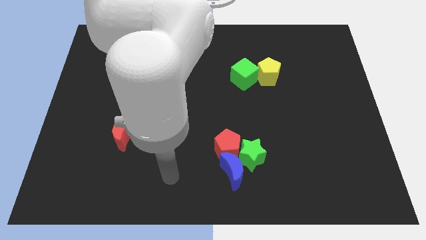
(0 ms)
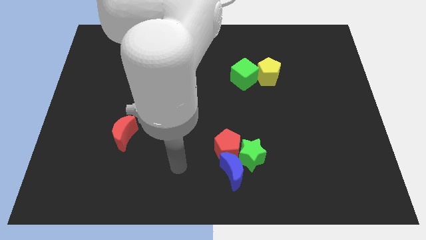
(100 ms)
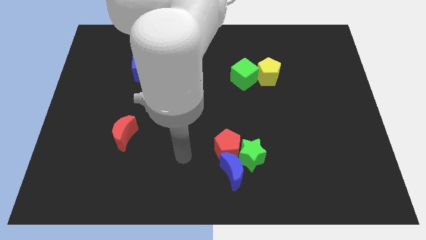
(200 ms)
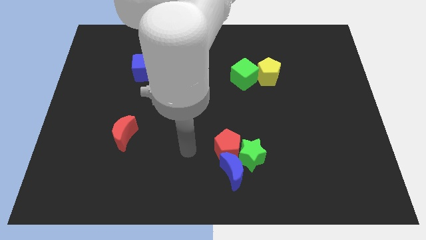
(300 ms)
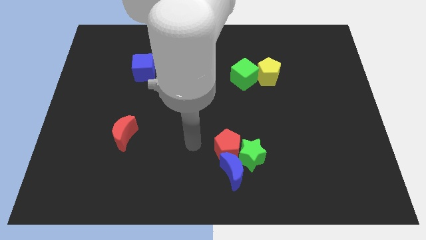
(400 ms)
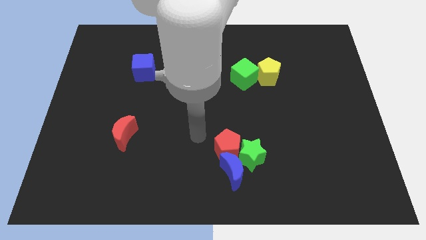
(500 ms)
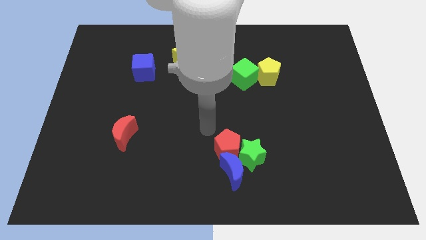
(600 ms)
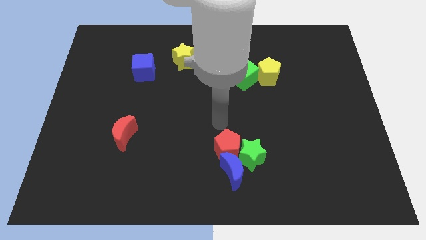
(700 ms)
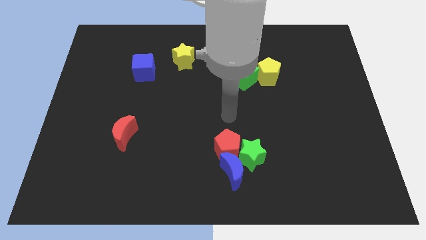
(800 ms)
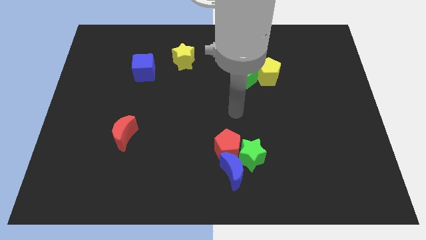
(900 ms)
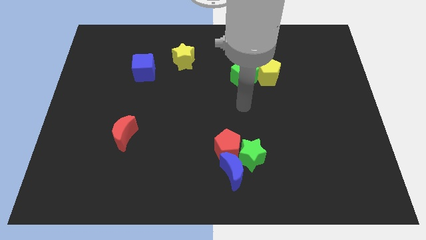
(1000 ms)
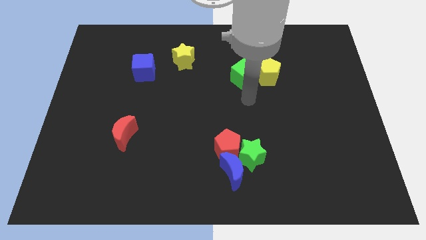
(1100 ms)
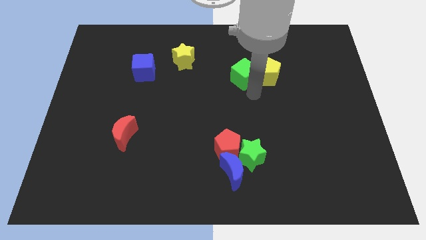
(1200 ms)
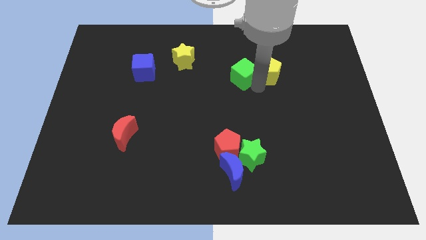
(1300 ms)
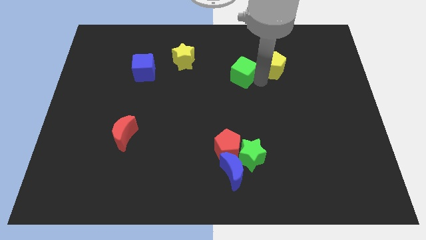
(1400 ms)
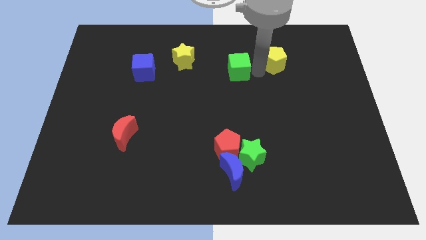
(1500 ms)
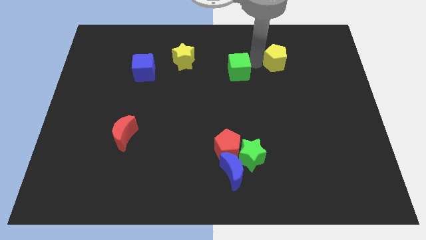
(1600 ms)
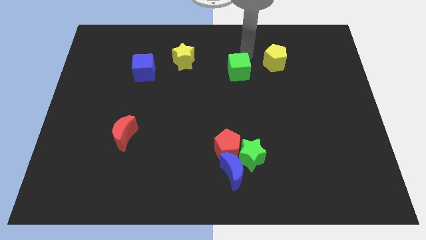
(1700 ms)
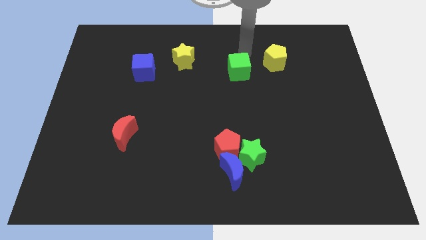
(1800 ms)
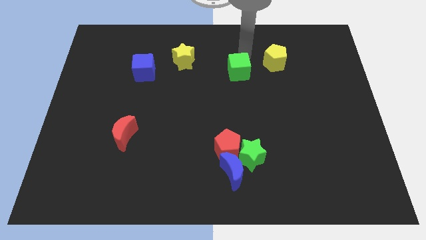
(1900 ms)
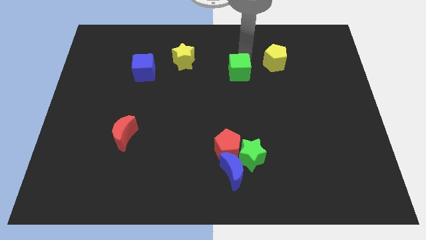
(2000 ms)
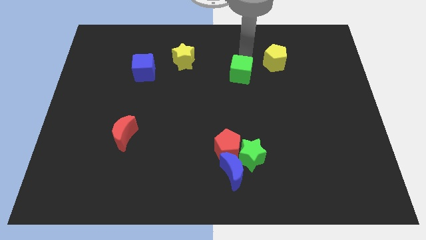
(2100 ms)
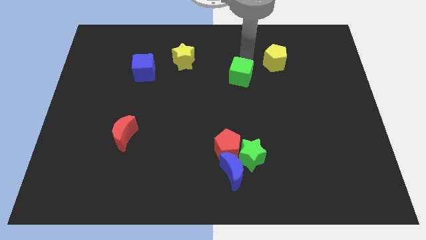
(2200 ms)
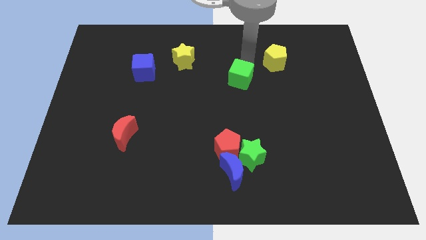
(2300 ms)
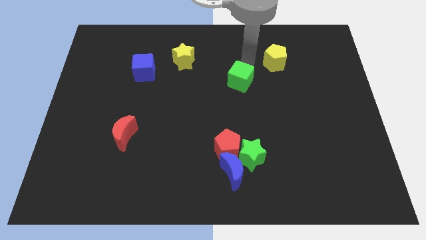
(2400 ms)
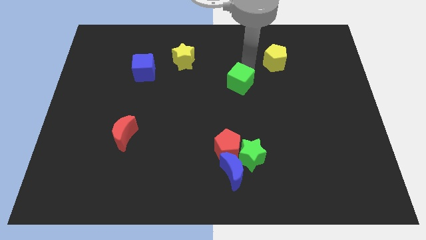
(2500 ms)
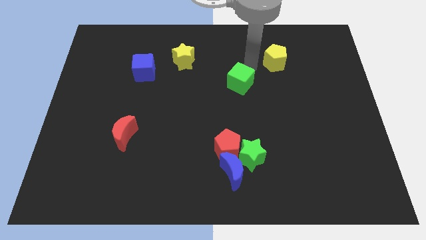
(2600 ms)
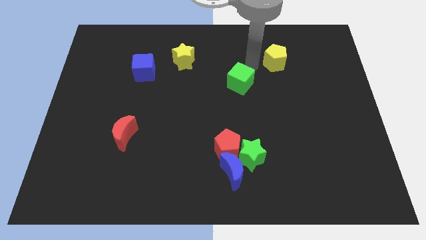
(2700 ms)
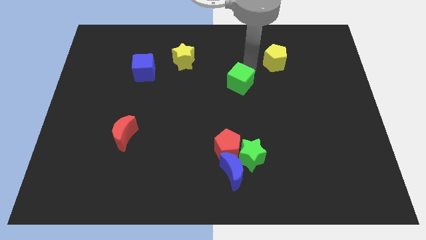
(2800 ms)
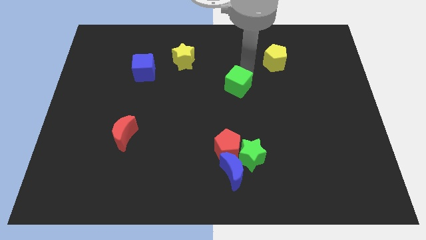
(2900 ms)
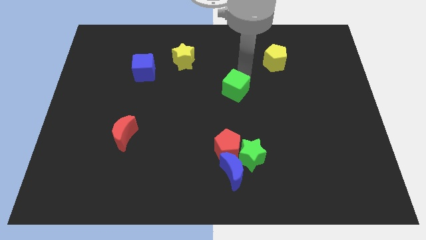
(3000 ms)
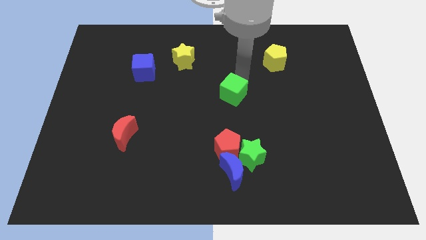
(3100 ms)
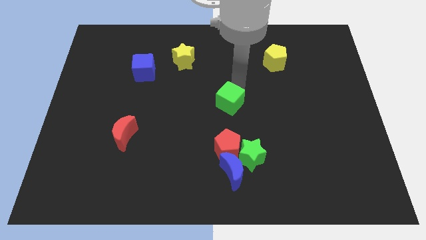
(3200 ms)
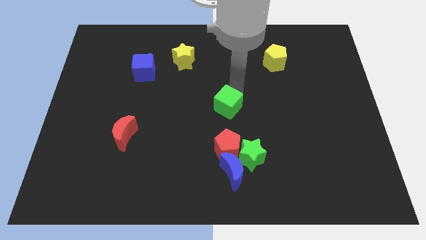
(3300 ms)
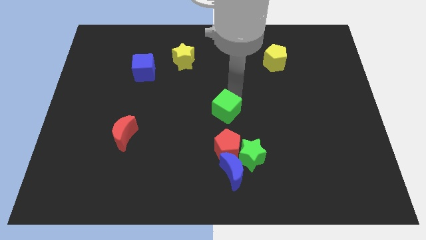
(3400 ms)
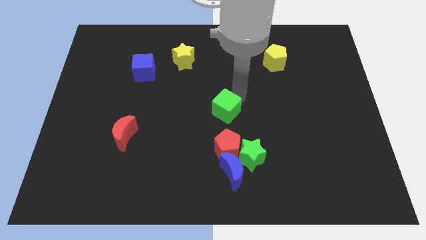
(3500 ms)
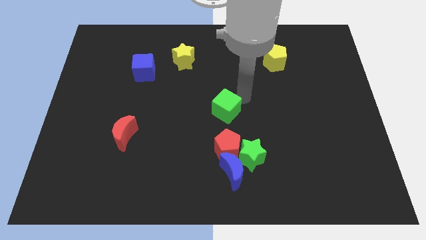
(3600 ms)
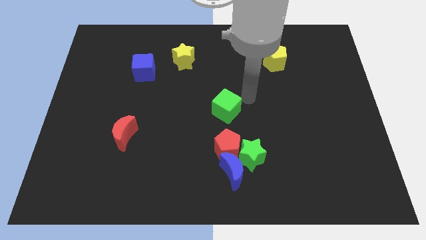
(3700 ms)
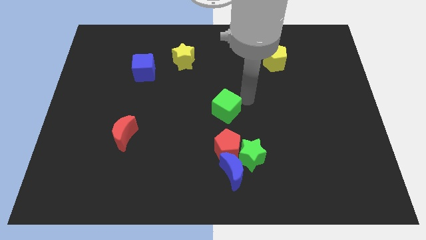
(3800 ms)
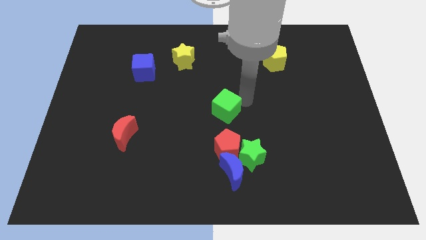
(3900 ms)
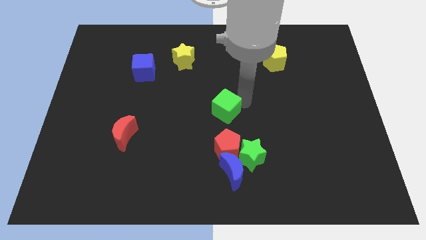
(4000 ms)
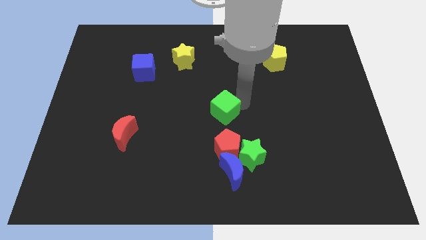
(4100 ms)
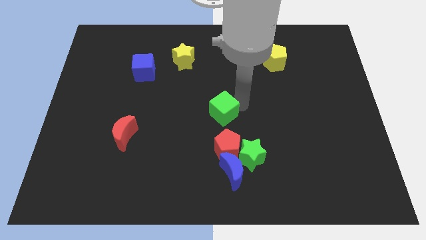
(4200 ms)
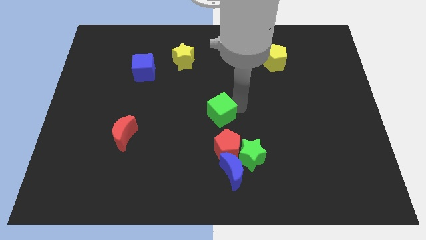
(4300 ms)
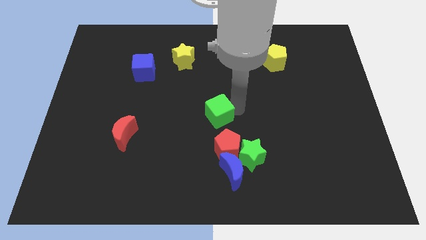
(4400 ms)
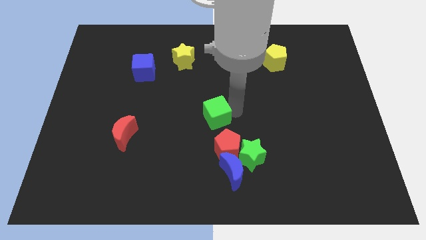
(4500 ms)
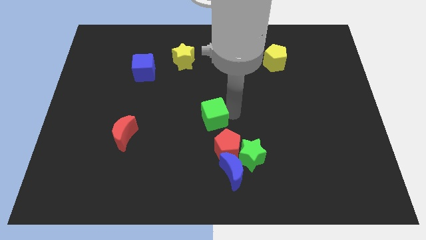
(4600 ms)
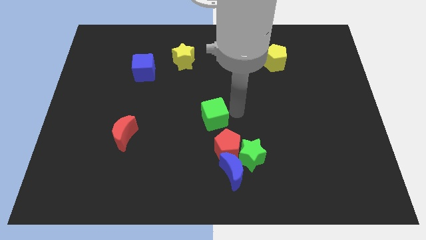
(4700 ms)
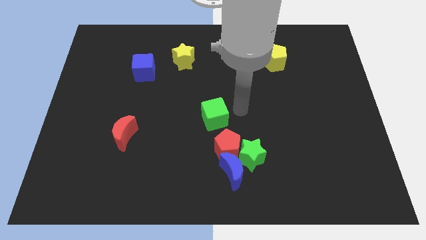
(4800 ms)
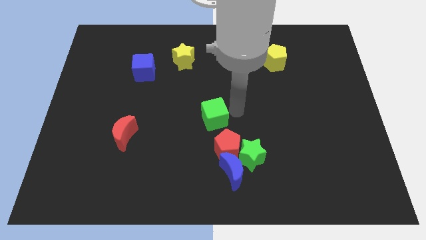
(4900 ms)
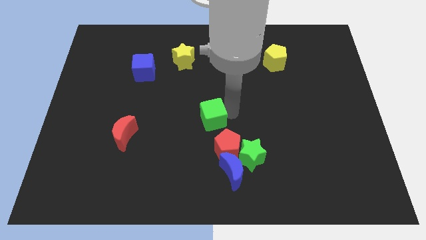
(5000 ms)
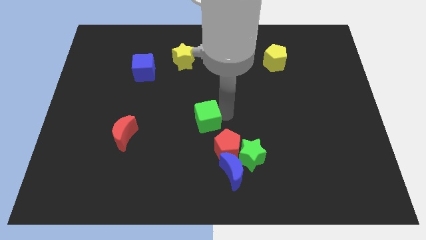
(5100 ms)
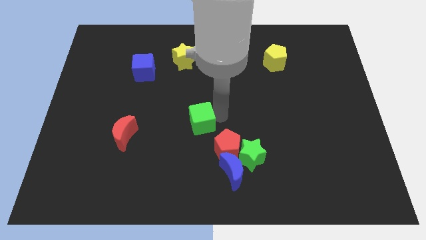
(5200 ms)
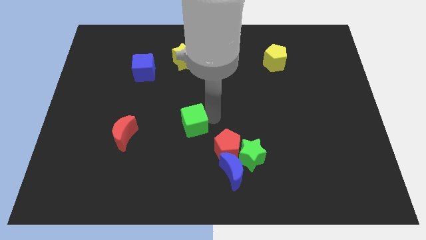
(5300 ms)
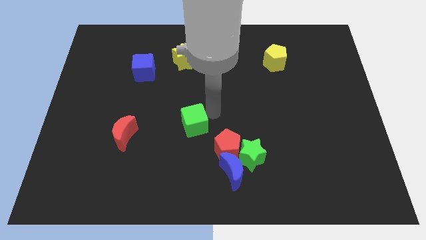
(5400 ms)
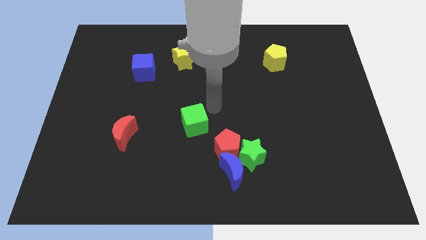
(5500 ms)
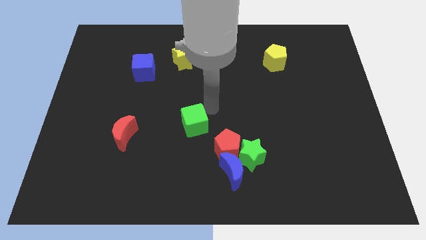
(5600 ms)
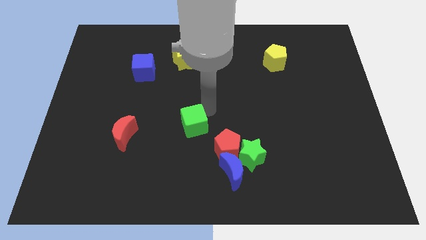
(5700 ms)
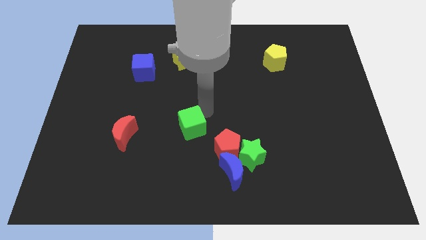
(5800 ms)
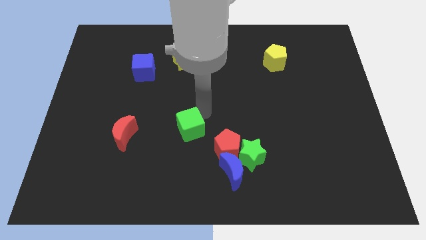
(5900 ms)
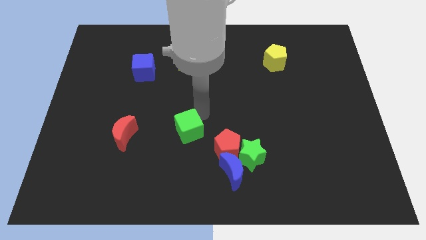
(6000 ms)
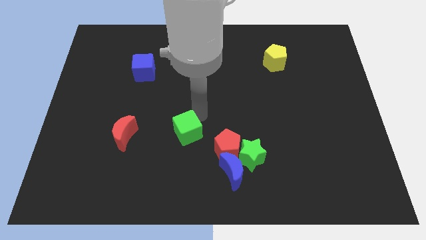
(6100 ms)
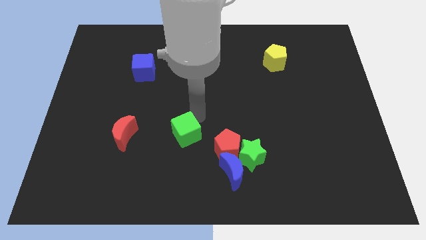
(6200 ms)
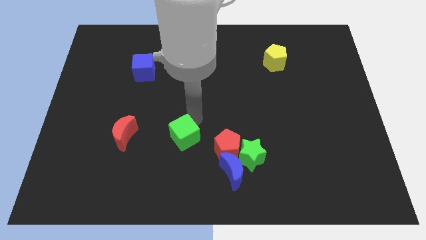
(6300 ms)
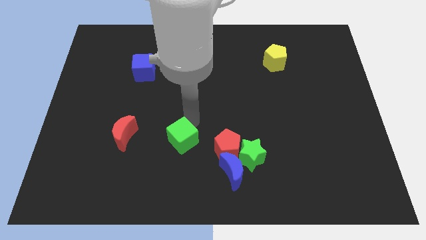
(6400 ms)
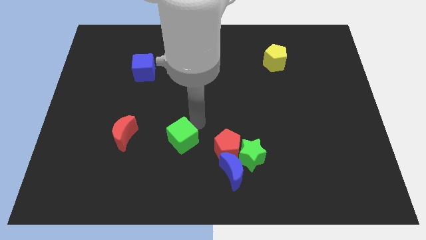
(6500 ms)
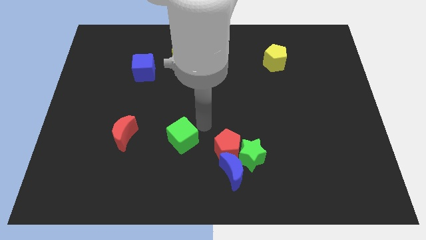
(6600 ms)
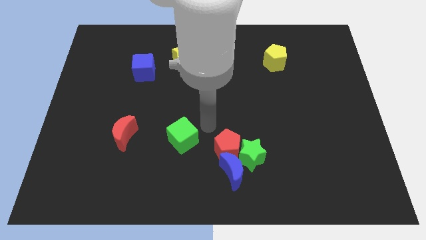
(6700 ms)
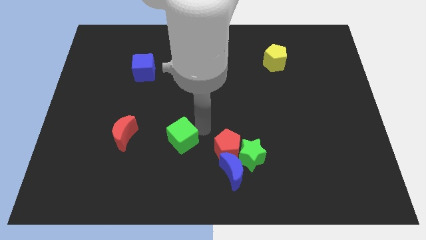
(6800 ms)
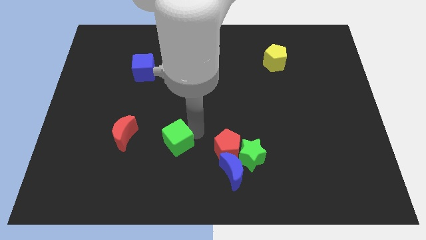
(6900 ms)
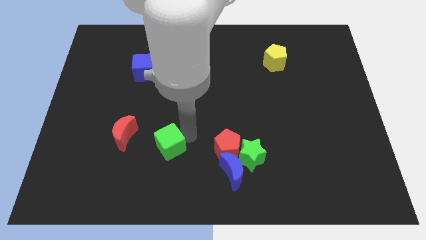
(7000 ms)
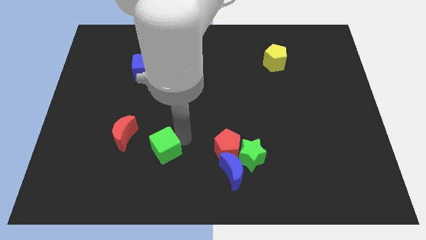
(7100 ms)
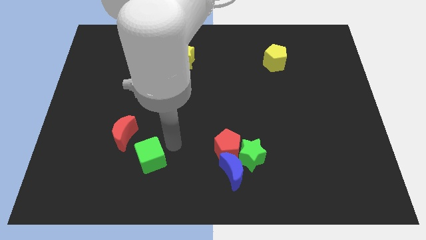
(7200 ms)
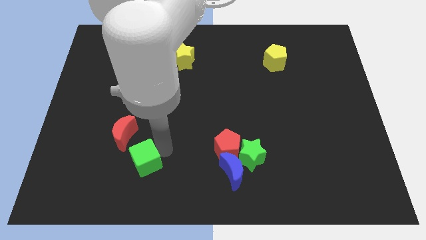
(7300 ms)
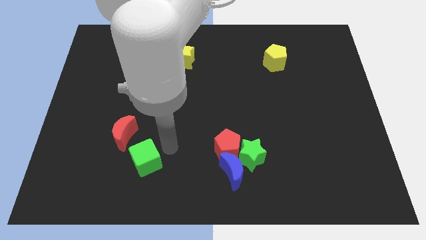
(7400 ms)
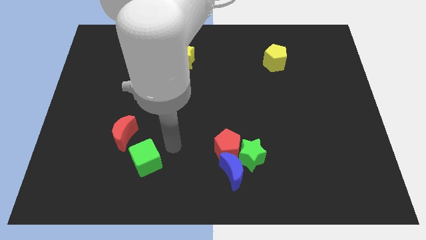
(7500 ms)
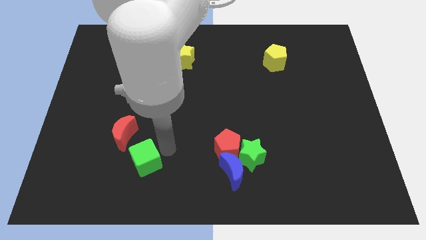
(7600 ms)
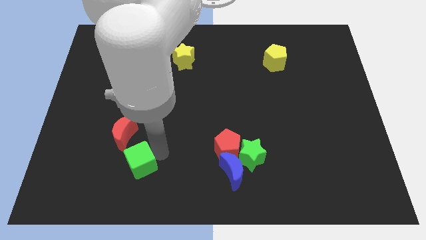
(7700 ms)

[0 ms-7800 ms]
push the green cube to the bottom side of the red moon
